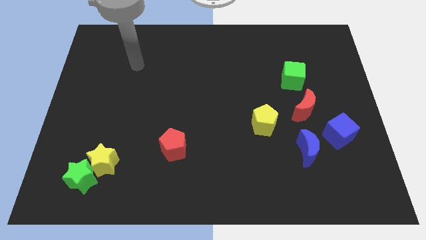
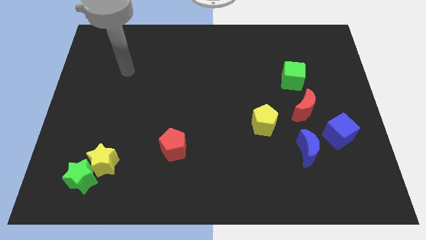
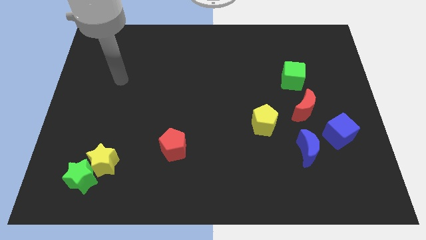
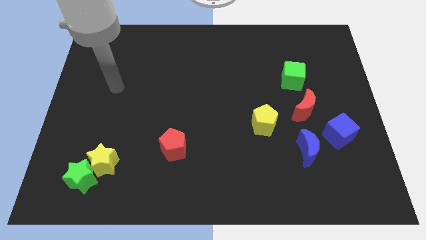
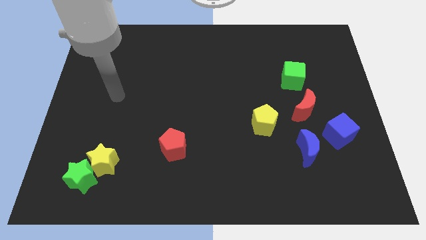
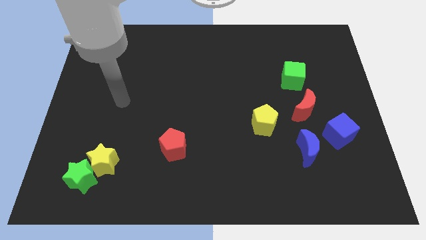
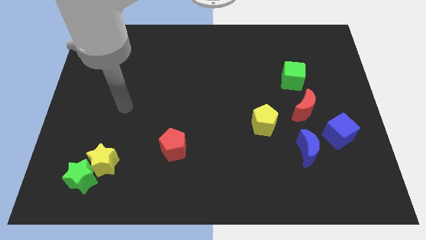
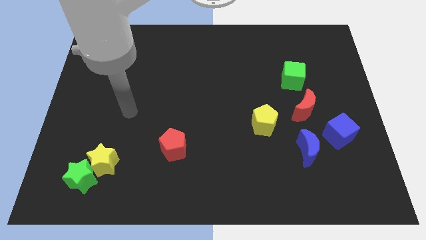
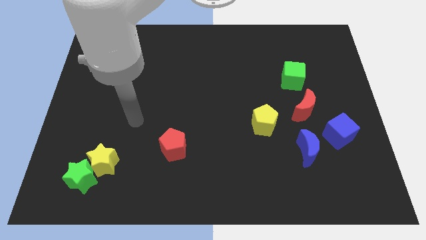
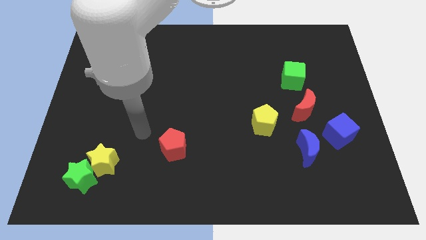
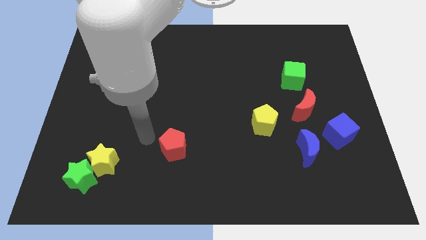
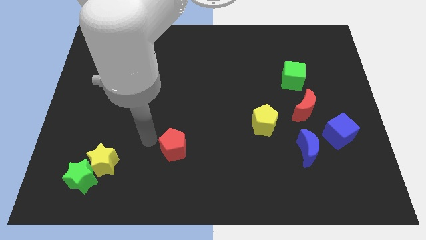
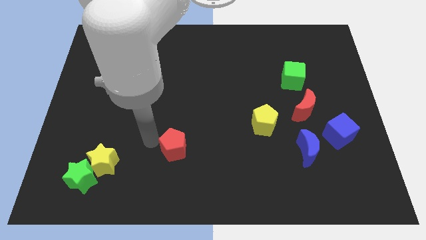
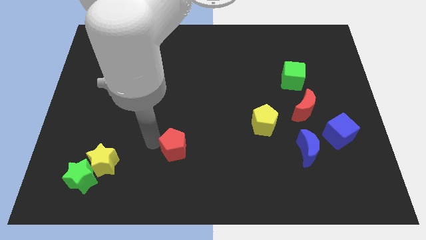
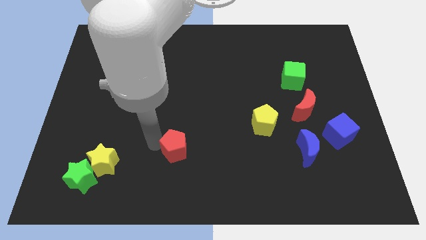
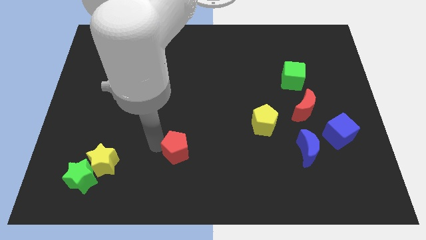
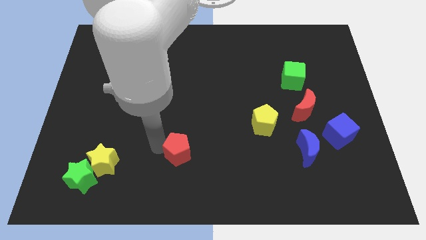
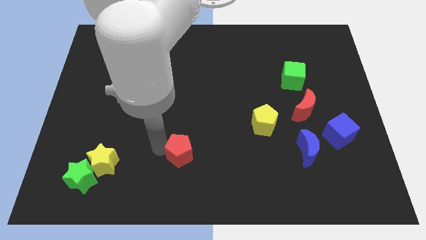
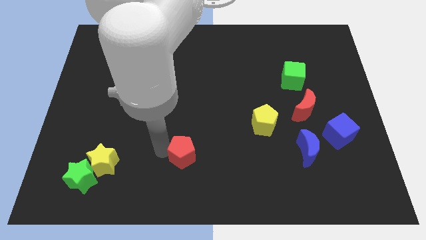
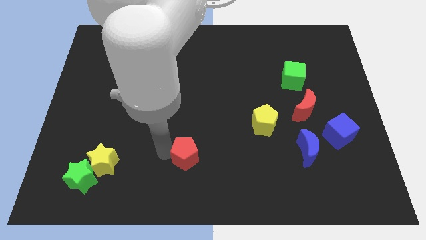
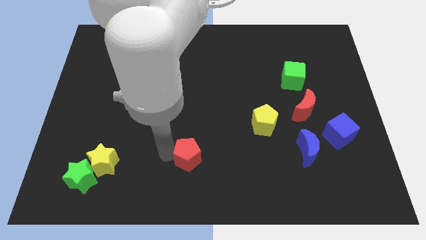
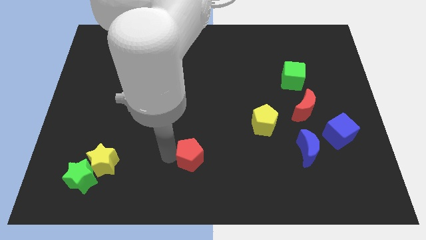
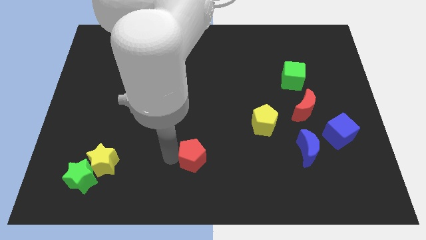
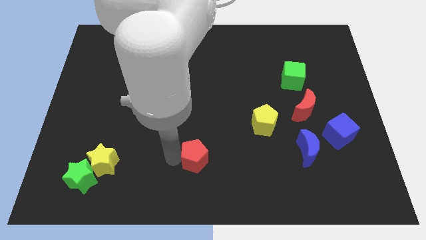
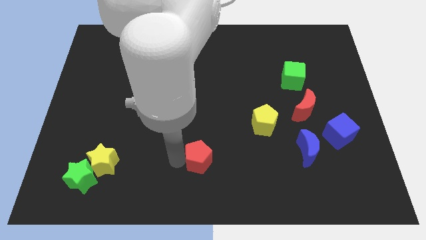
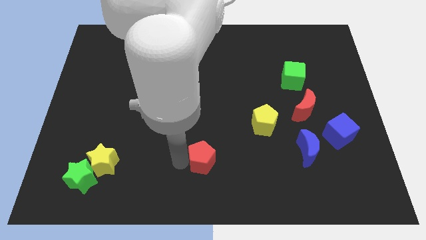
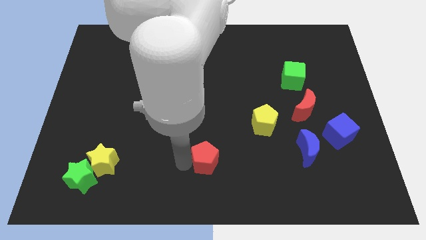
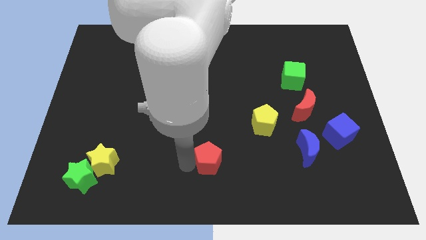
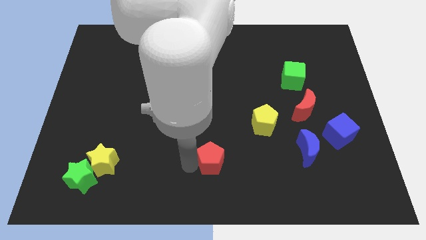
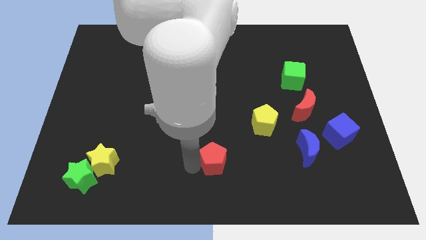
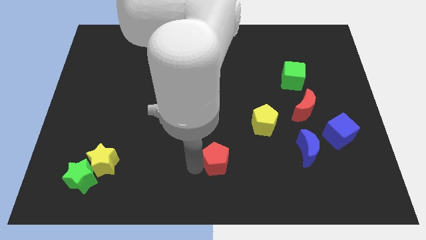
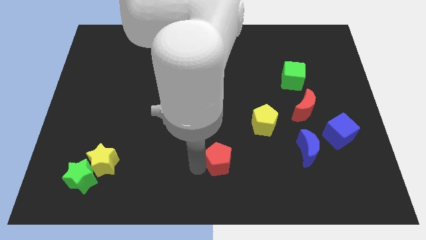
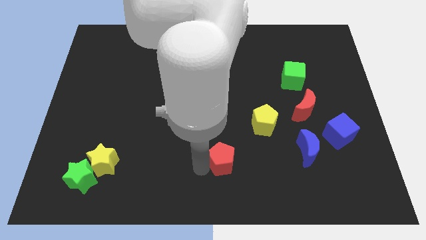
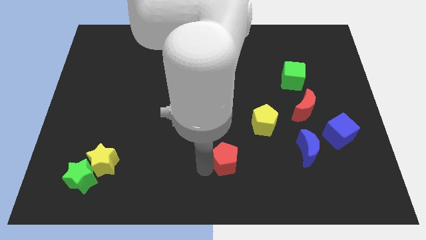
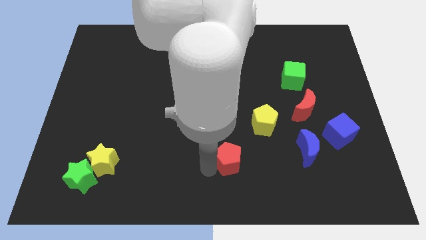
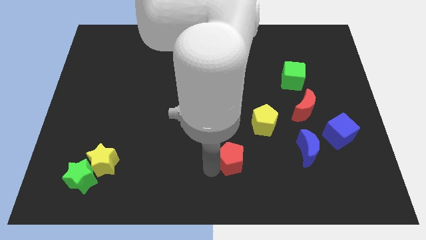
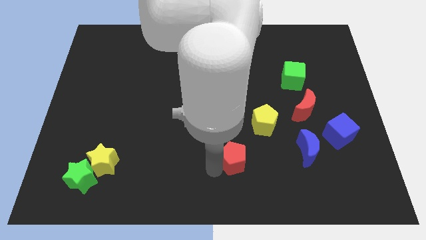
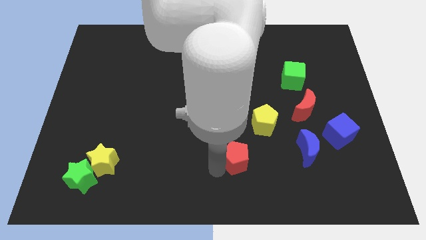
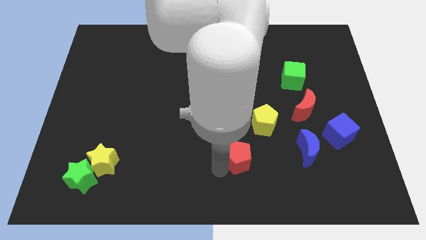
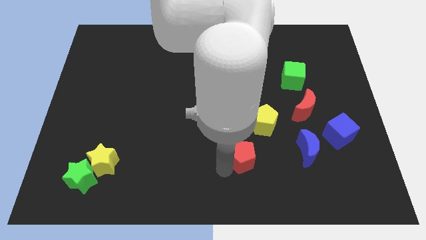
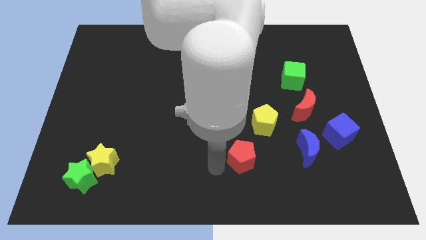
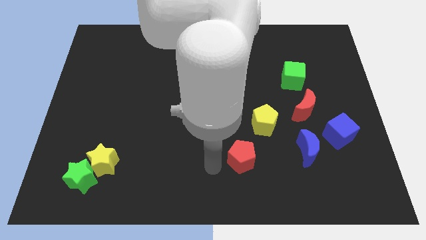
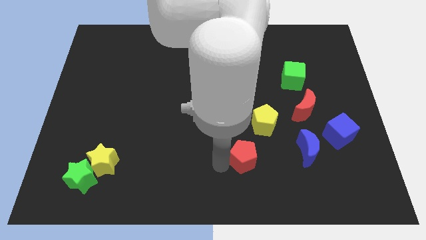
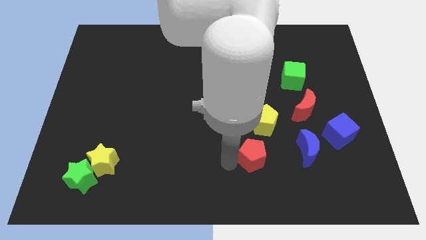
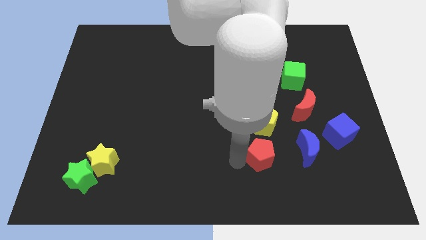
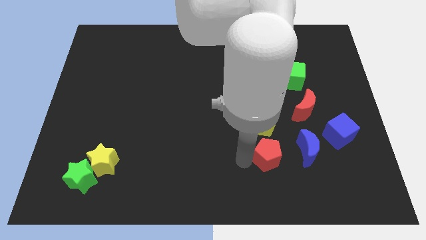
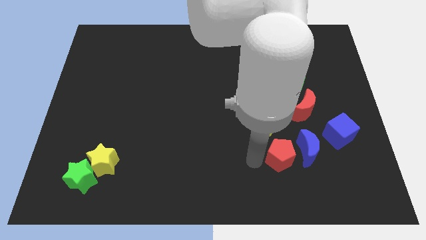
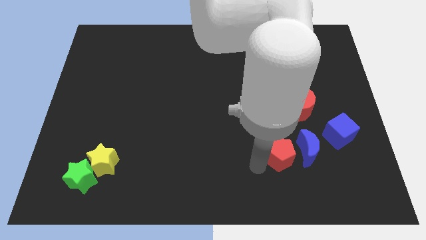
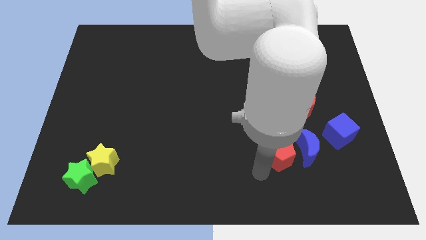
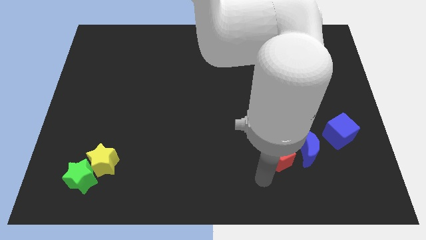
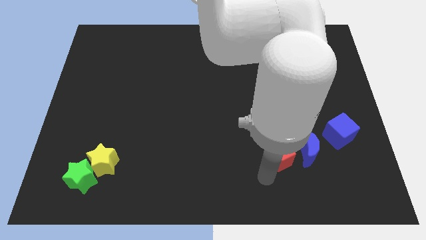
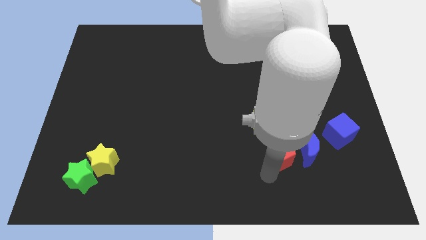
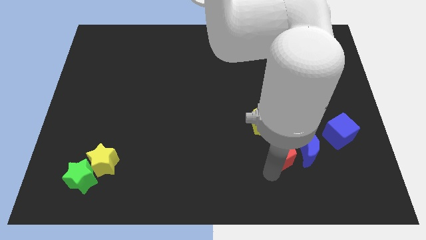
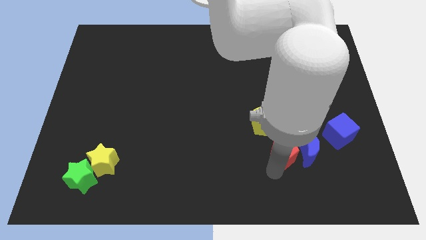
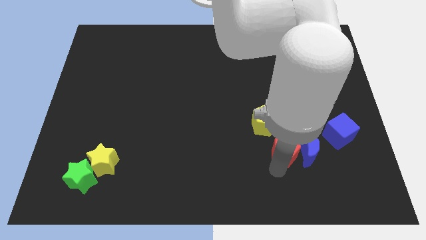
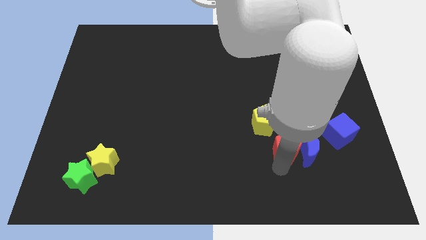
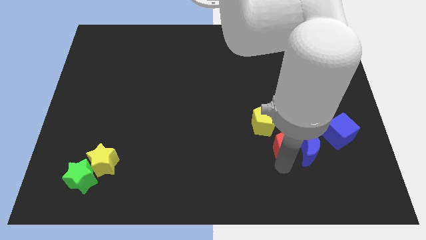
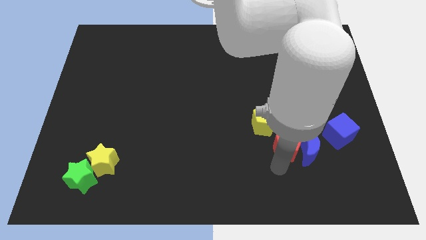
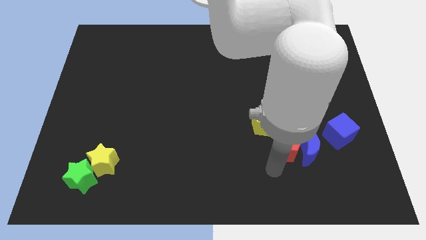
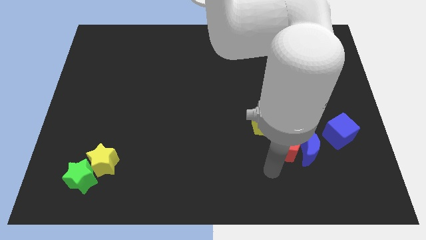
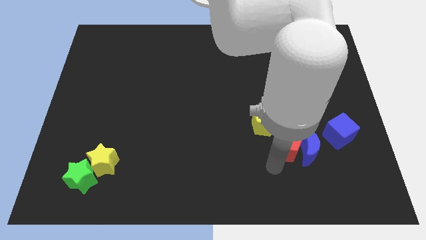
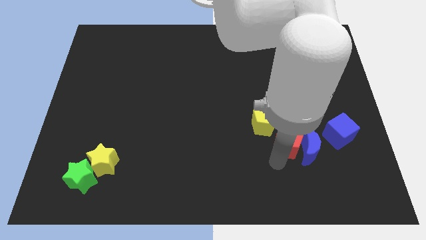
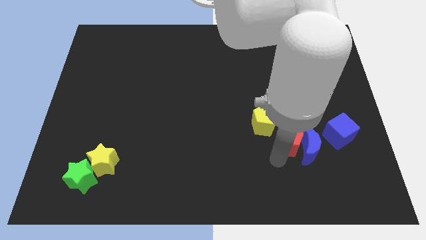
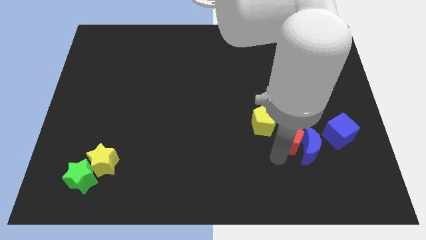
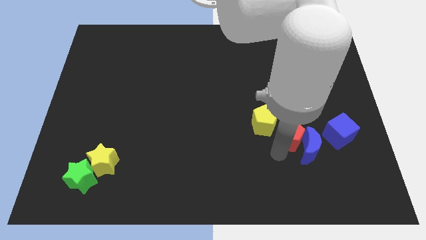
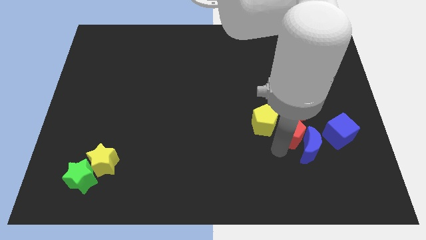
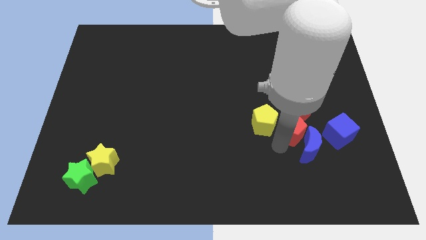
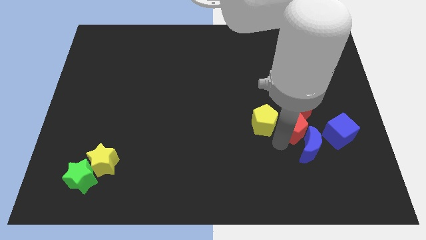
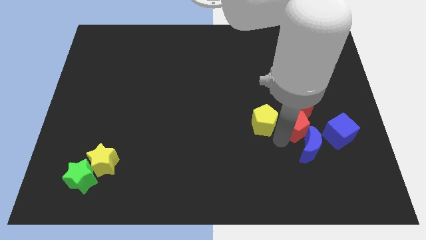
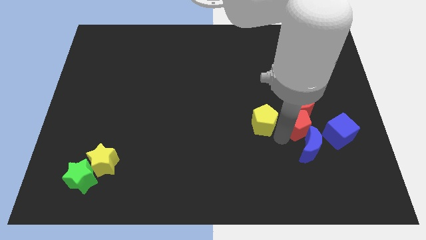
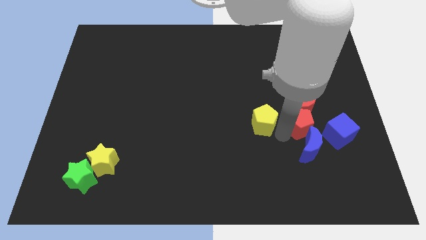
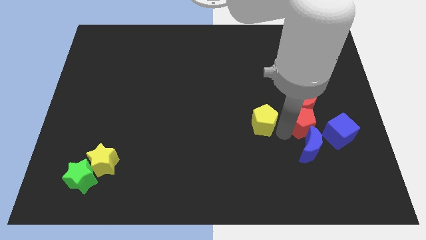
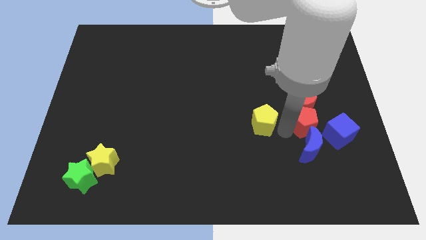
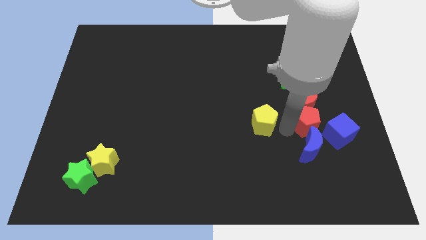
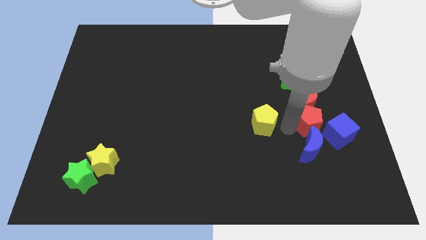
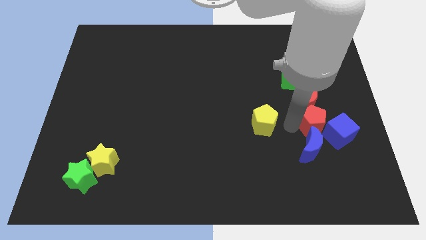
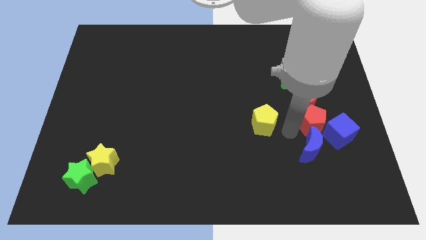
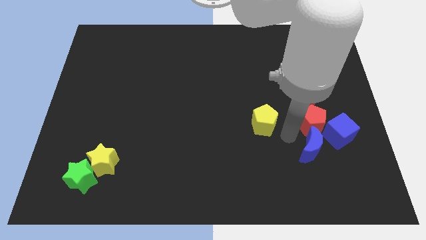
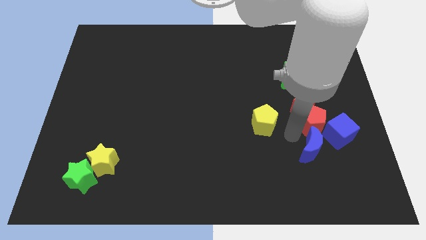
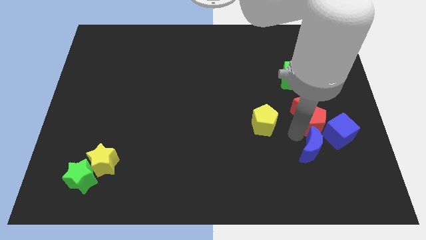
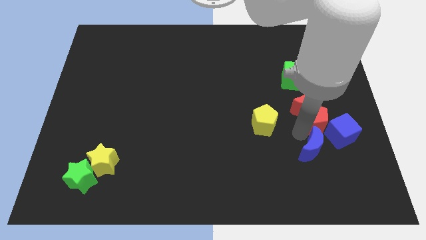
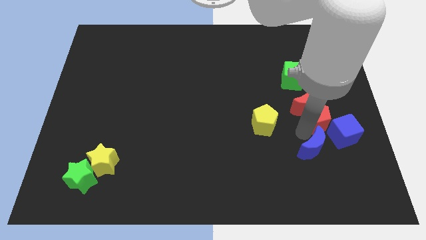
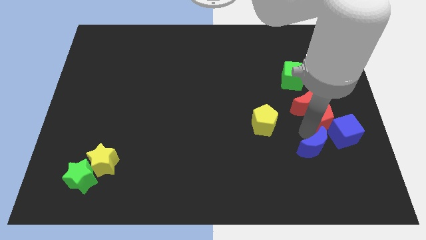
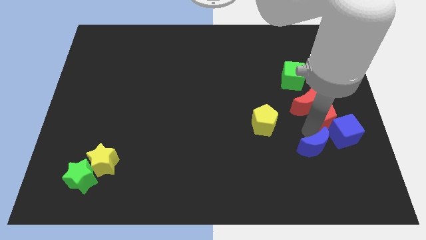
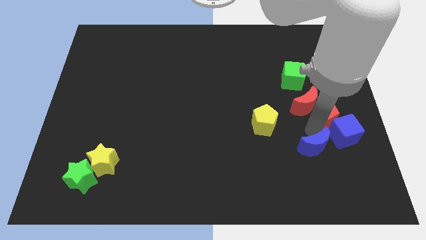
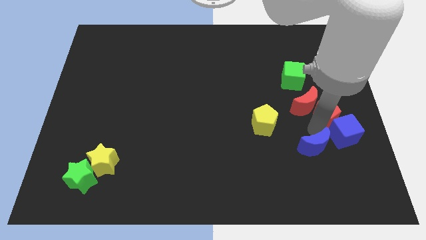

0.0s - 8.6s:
put the red pentagon to the right side of the board
